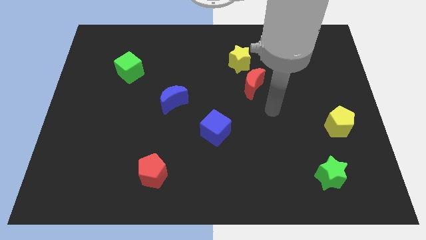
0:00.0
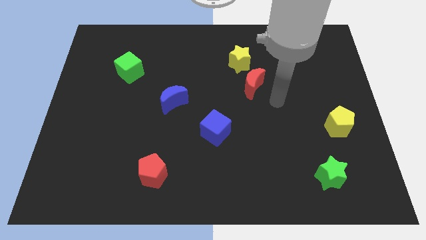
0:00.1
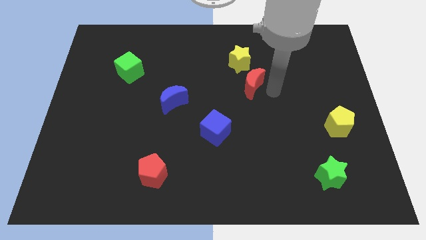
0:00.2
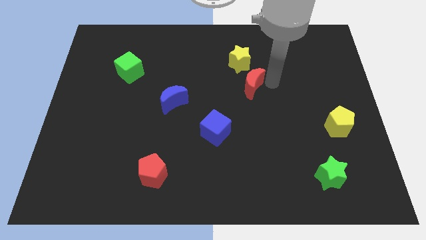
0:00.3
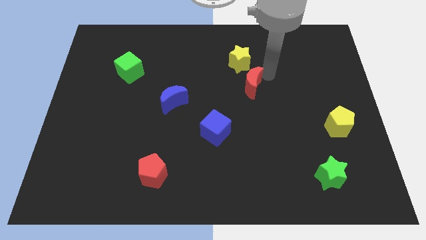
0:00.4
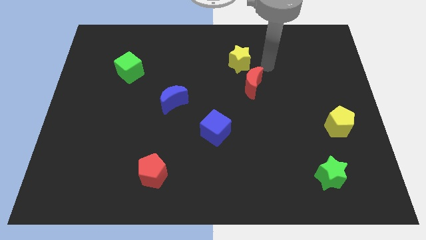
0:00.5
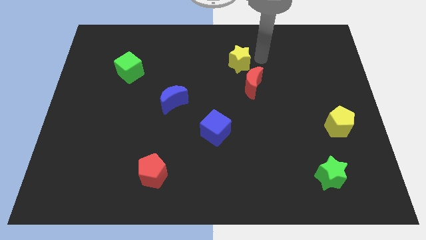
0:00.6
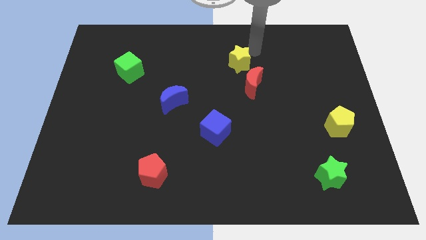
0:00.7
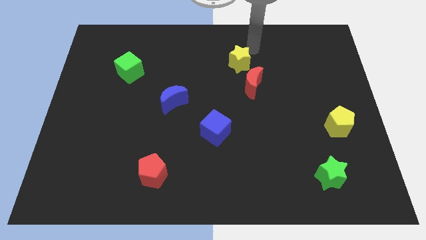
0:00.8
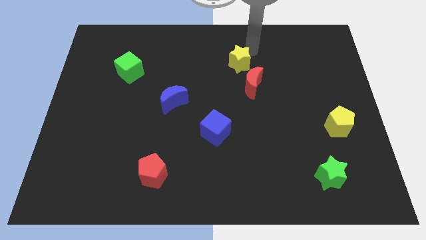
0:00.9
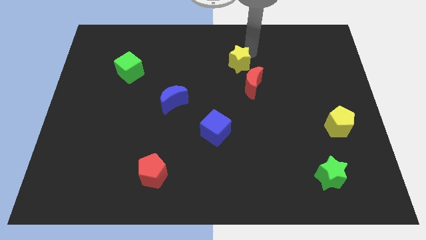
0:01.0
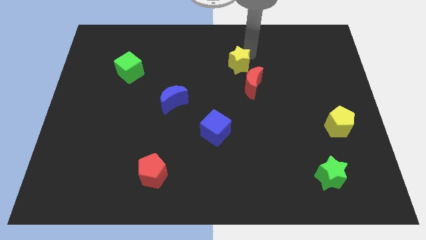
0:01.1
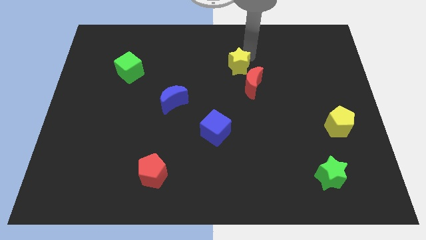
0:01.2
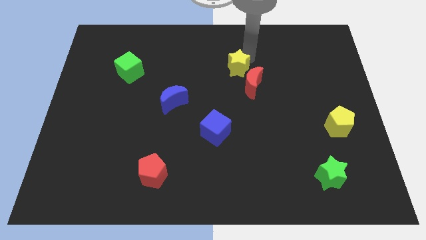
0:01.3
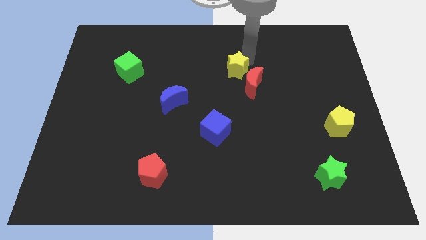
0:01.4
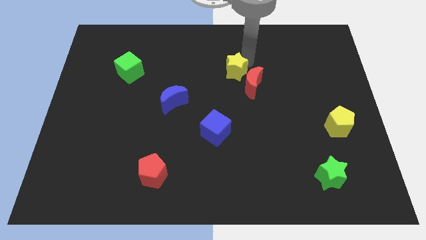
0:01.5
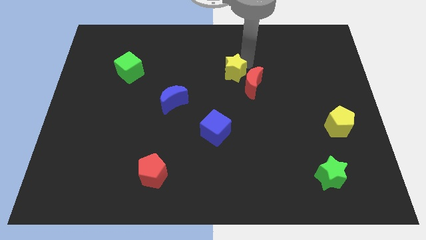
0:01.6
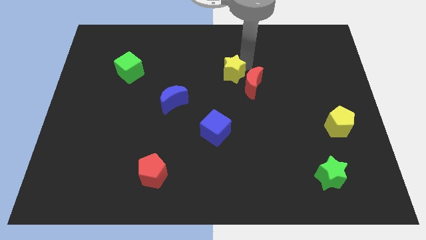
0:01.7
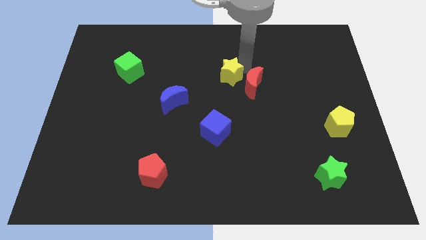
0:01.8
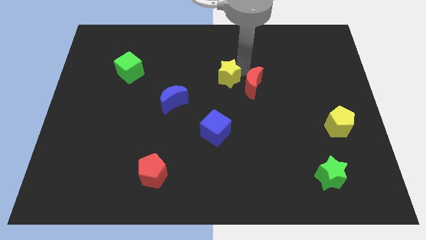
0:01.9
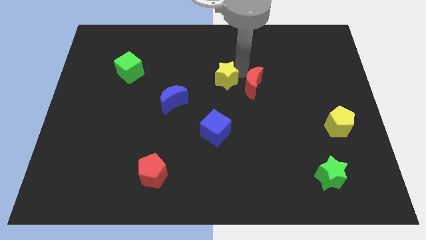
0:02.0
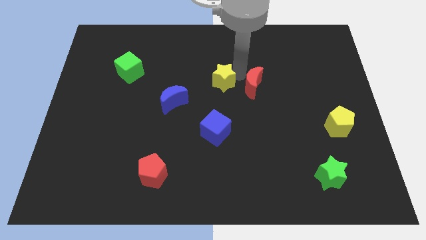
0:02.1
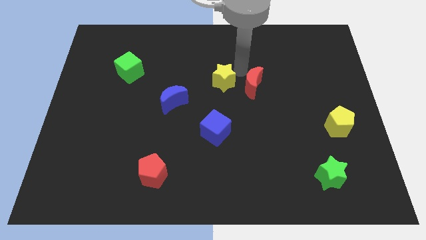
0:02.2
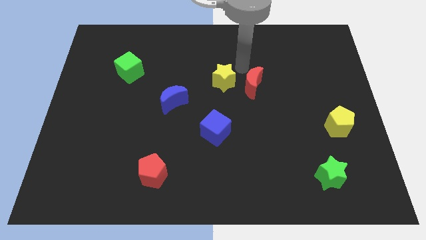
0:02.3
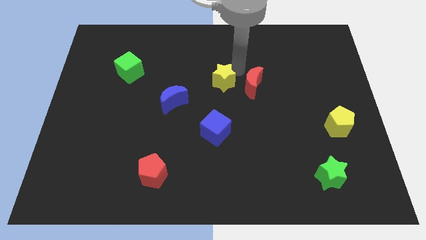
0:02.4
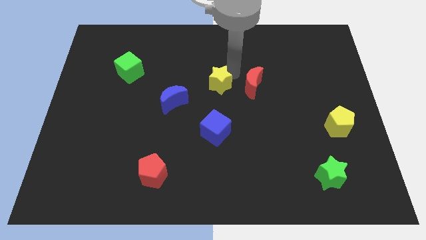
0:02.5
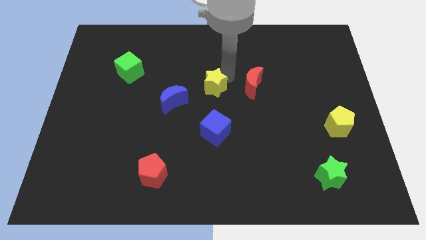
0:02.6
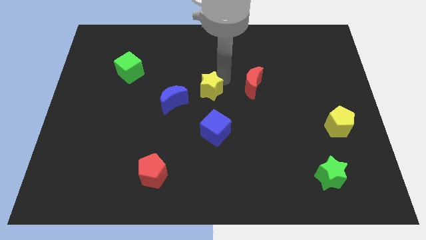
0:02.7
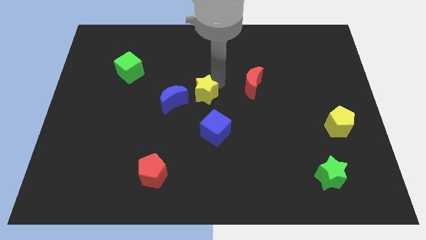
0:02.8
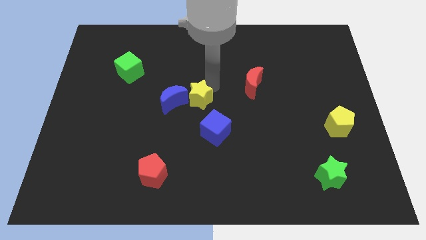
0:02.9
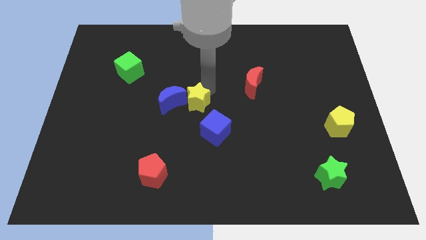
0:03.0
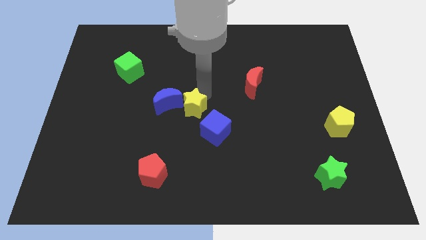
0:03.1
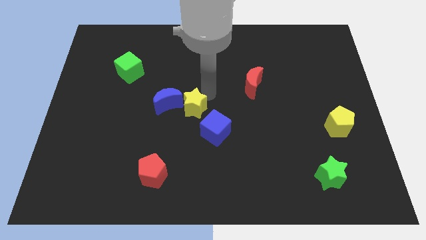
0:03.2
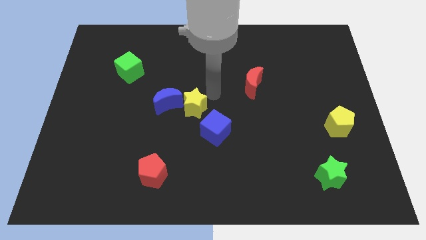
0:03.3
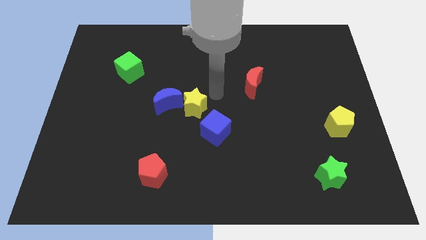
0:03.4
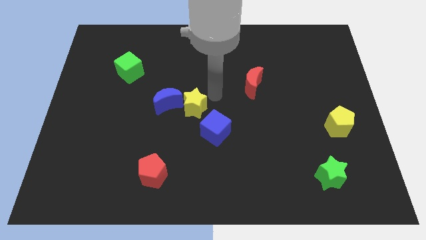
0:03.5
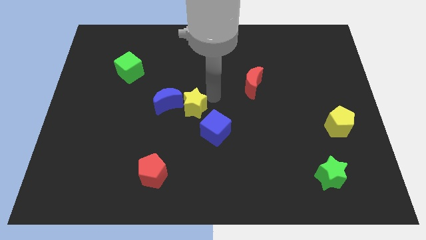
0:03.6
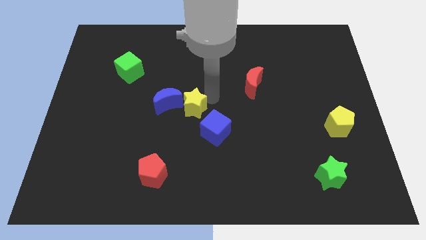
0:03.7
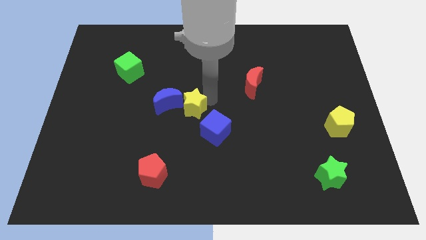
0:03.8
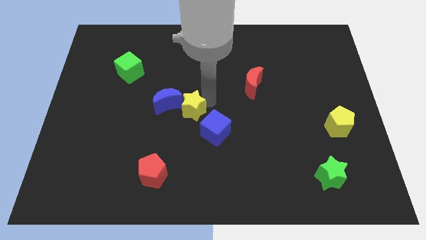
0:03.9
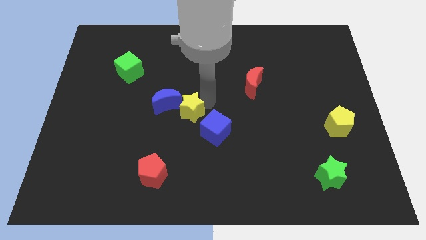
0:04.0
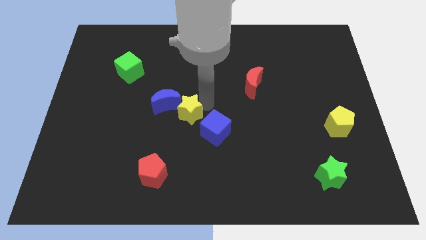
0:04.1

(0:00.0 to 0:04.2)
move the yellow star down and left diagonally

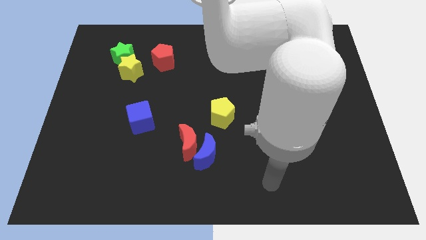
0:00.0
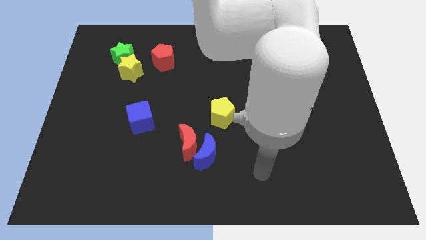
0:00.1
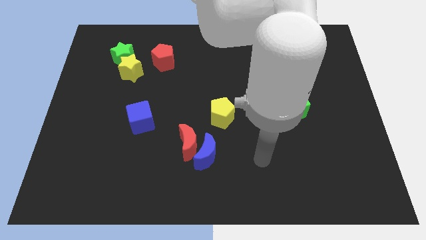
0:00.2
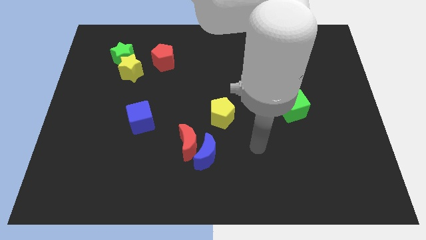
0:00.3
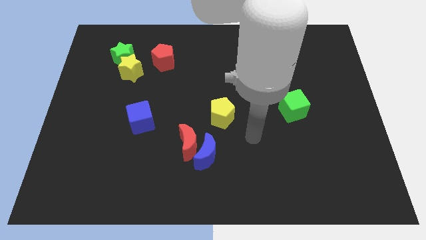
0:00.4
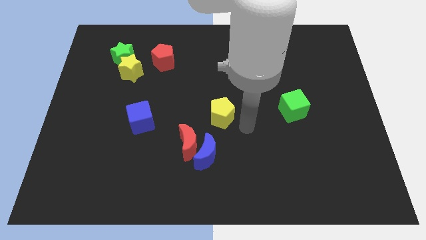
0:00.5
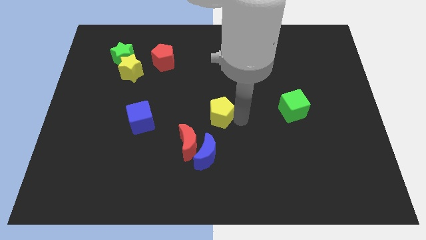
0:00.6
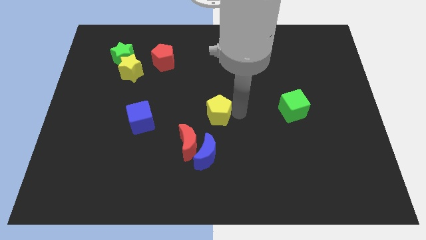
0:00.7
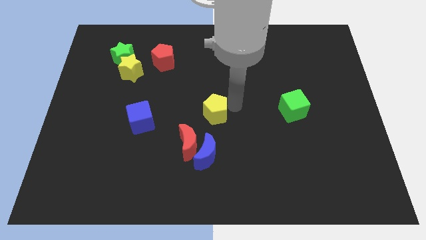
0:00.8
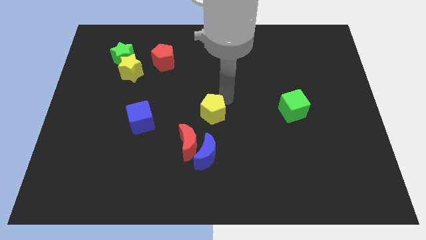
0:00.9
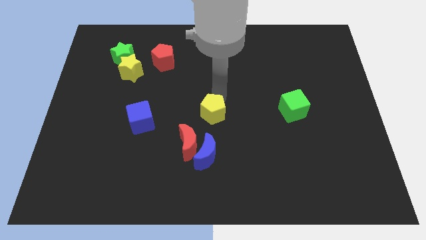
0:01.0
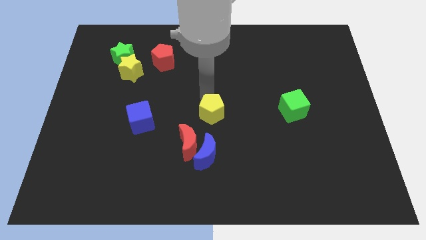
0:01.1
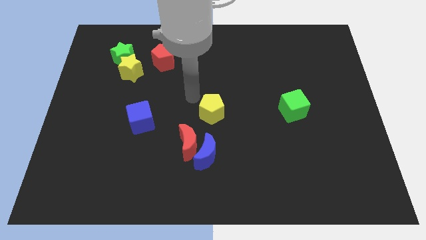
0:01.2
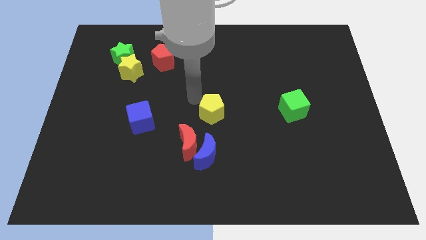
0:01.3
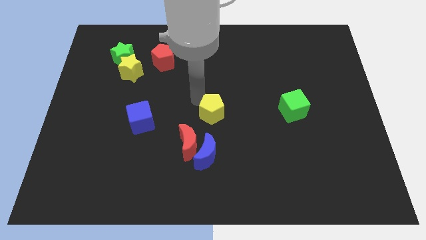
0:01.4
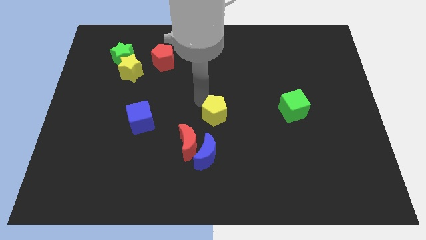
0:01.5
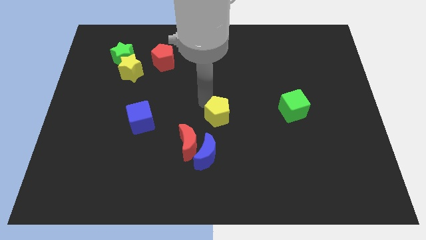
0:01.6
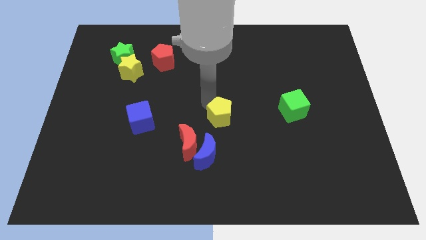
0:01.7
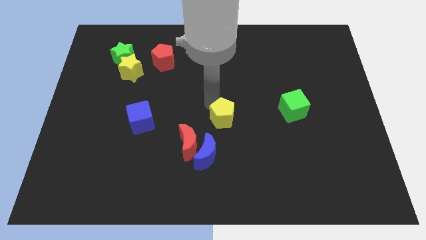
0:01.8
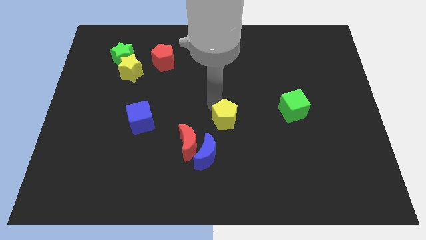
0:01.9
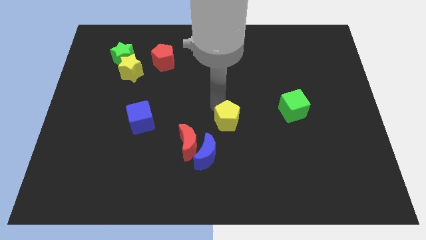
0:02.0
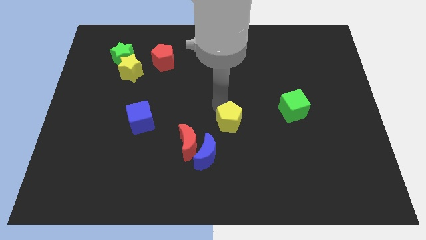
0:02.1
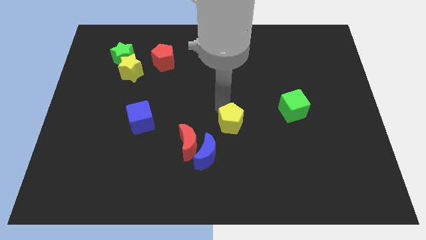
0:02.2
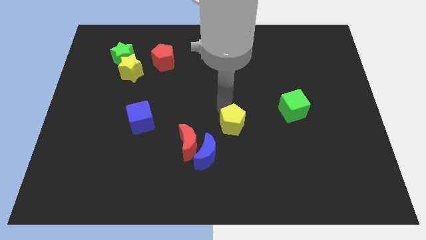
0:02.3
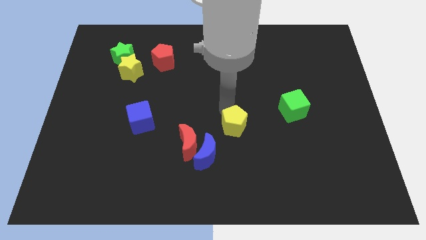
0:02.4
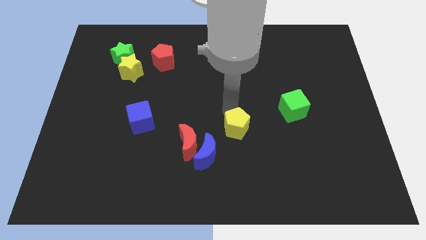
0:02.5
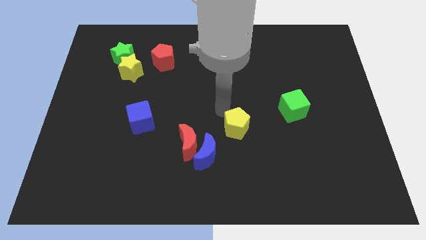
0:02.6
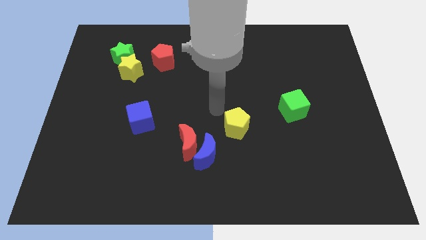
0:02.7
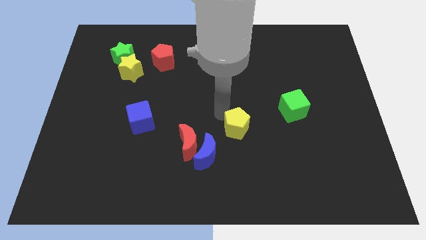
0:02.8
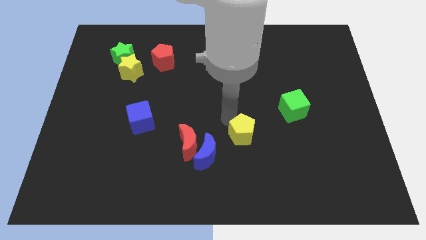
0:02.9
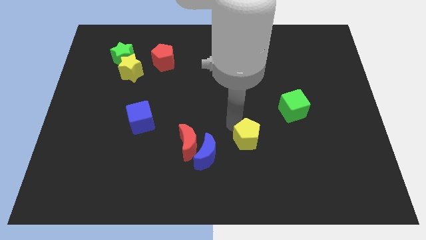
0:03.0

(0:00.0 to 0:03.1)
slightly move the yellow pentagon down and to the right diagonally

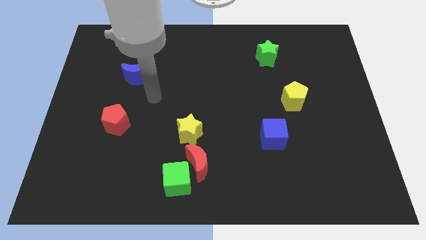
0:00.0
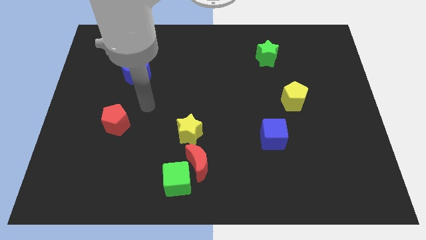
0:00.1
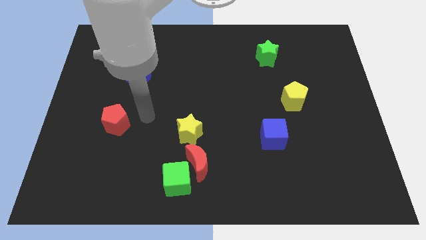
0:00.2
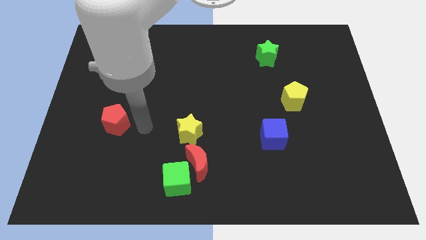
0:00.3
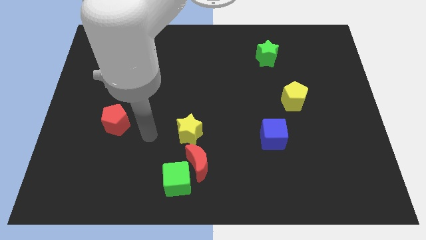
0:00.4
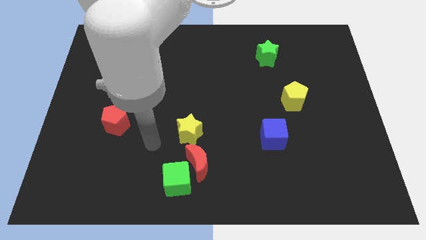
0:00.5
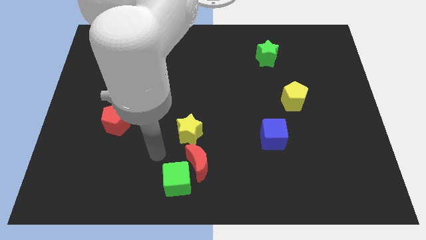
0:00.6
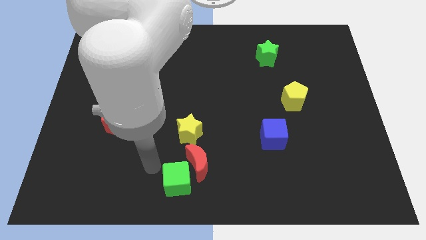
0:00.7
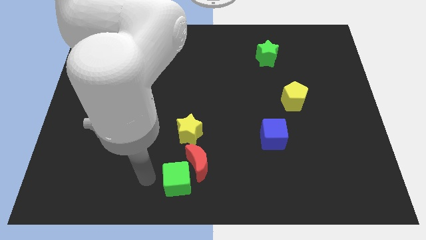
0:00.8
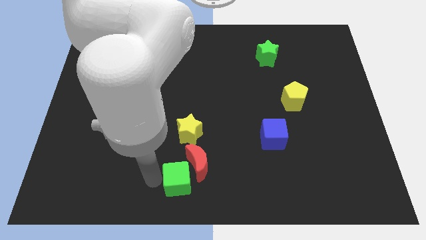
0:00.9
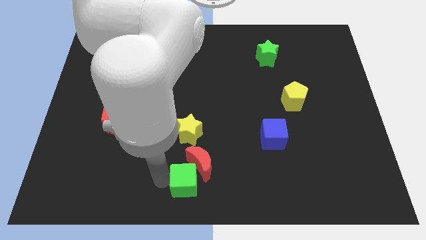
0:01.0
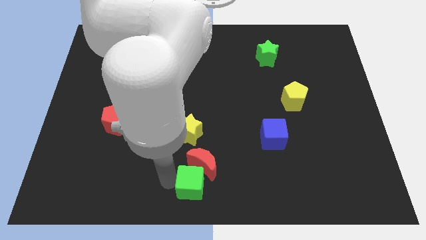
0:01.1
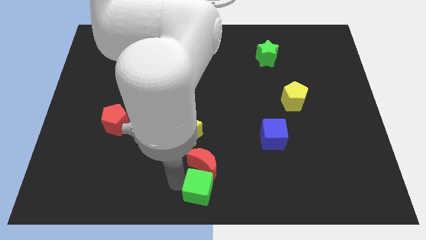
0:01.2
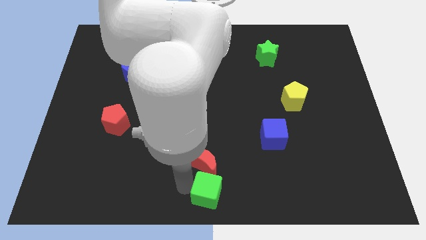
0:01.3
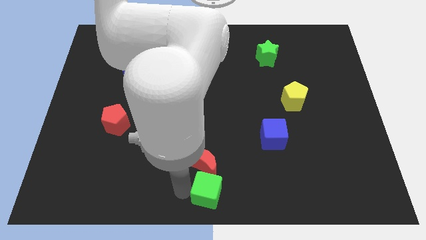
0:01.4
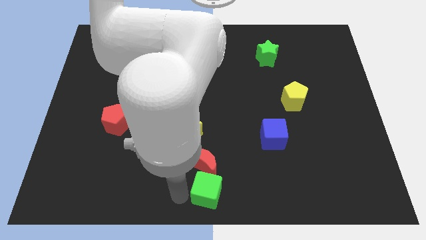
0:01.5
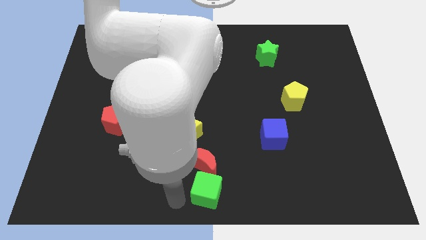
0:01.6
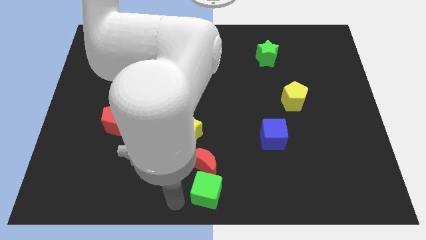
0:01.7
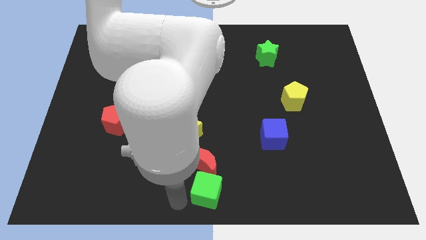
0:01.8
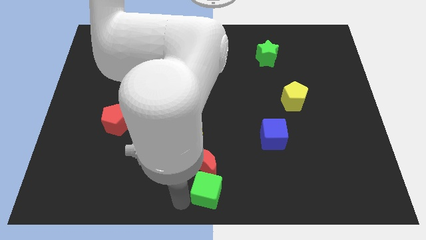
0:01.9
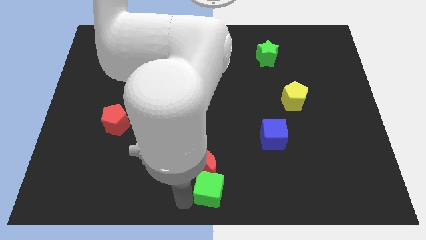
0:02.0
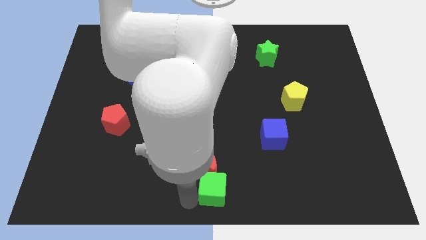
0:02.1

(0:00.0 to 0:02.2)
move the green cube to the right somewhat
